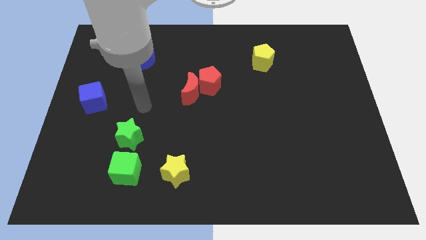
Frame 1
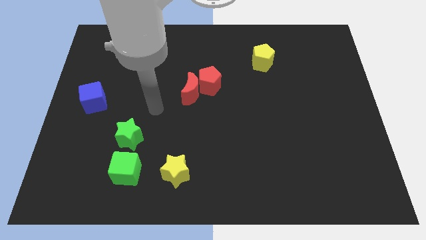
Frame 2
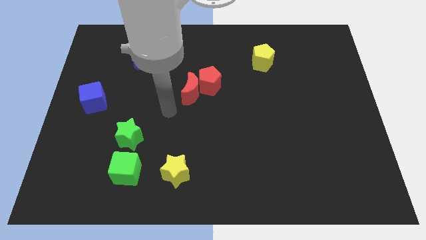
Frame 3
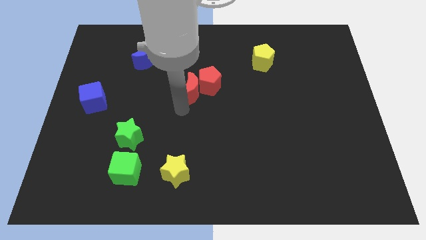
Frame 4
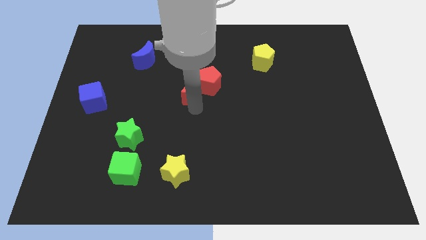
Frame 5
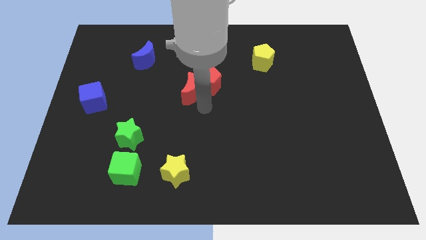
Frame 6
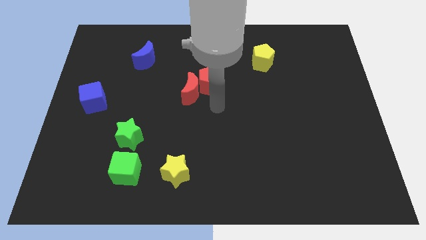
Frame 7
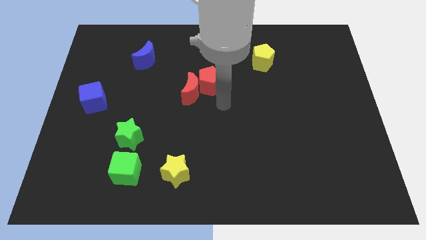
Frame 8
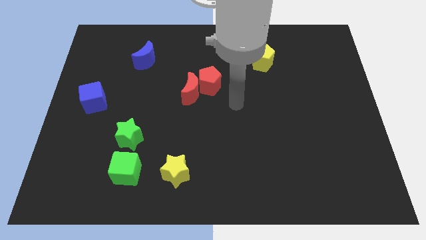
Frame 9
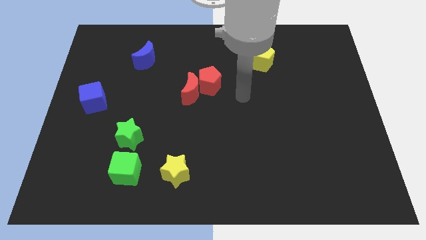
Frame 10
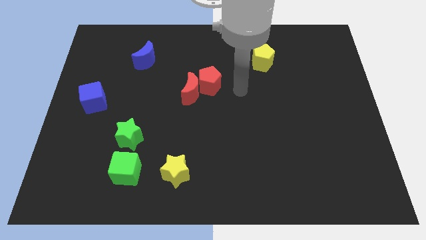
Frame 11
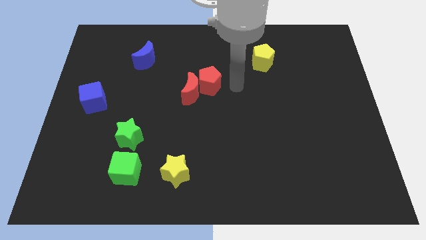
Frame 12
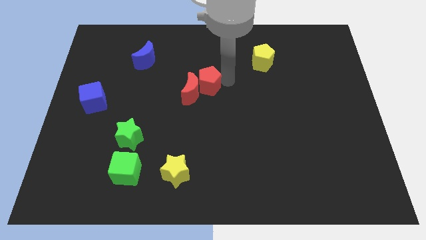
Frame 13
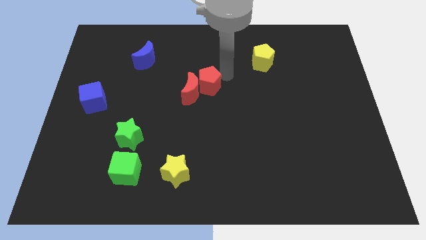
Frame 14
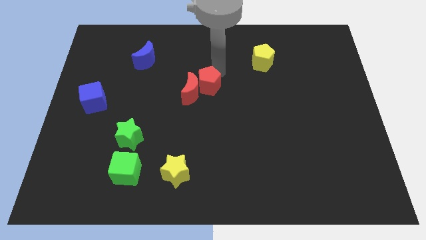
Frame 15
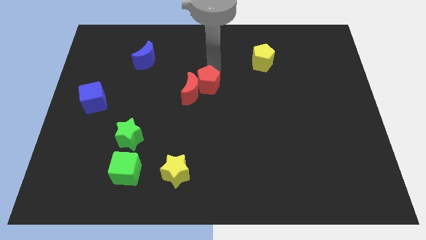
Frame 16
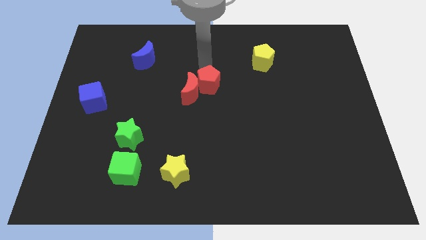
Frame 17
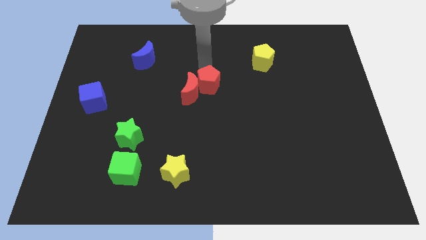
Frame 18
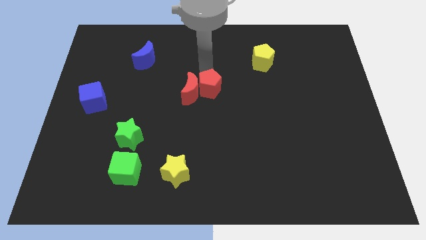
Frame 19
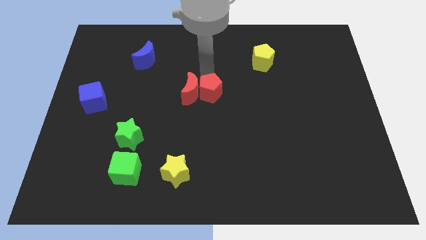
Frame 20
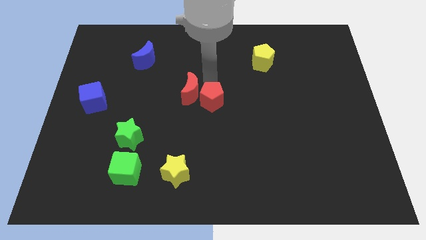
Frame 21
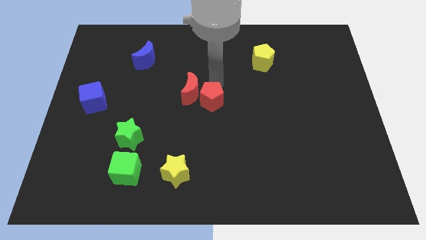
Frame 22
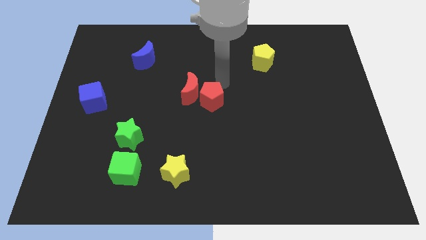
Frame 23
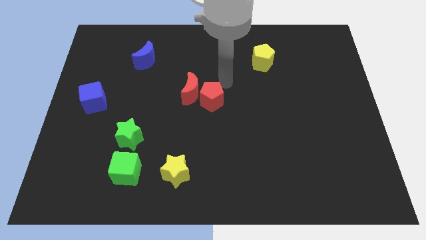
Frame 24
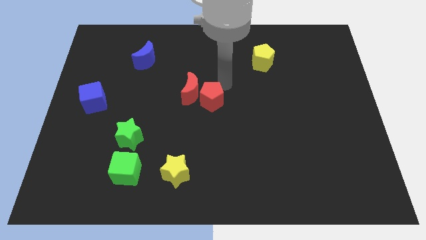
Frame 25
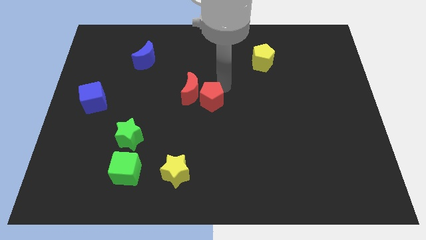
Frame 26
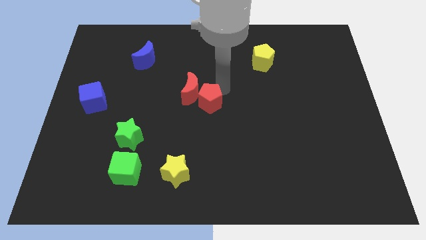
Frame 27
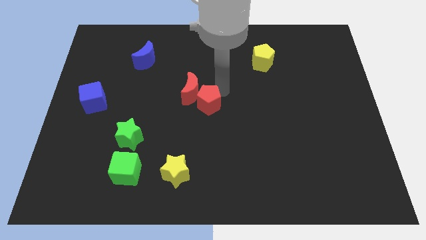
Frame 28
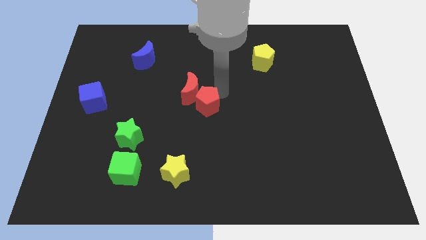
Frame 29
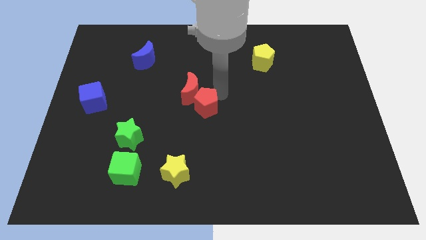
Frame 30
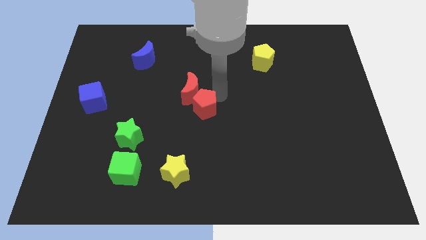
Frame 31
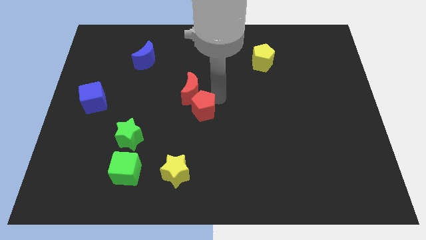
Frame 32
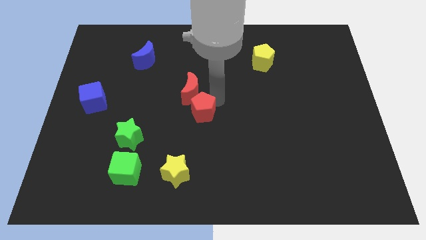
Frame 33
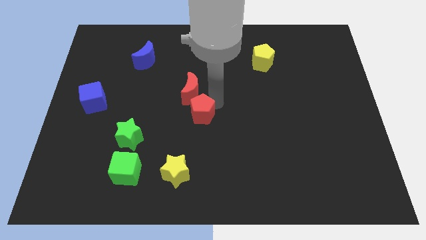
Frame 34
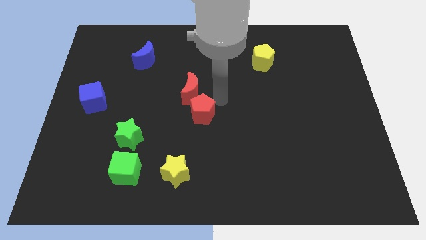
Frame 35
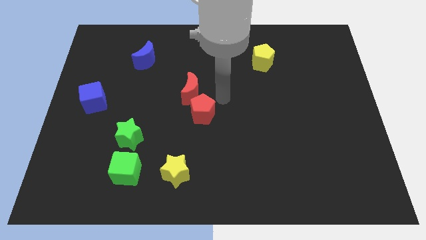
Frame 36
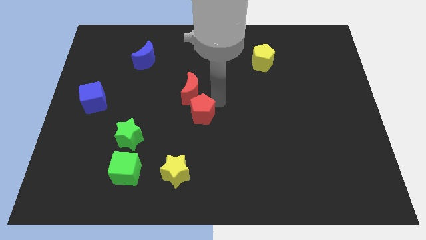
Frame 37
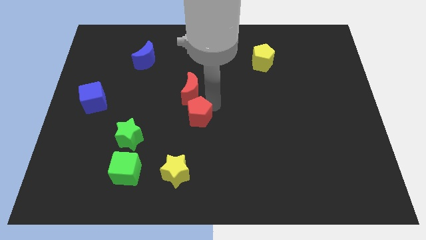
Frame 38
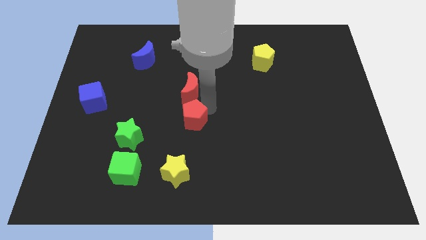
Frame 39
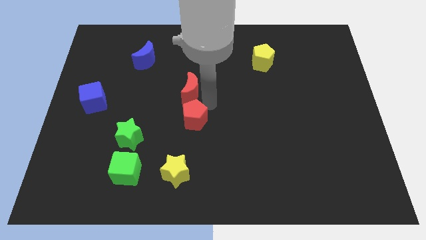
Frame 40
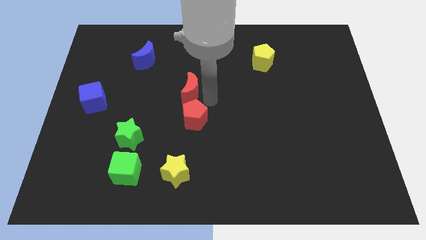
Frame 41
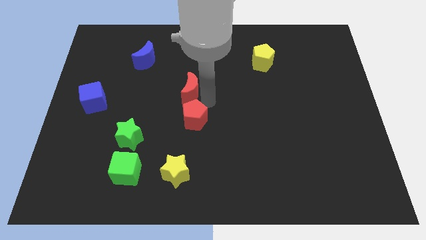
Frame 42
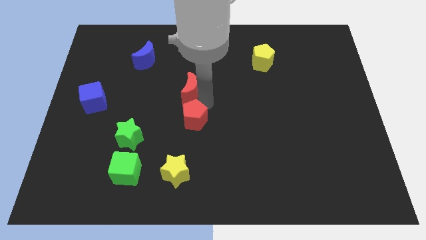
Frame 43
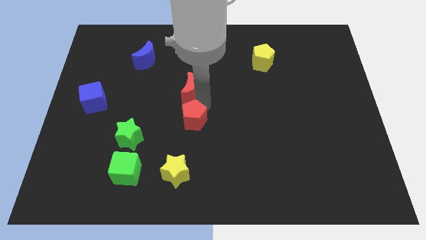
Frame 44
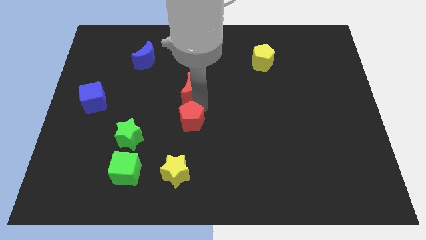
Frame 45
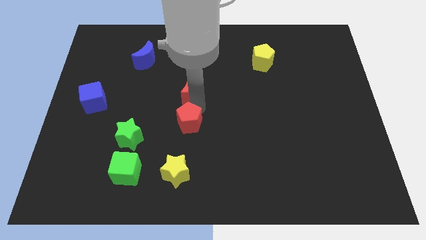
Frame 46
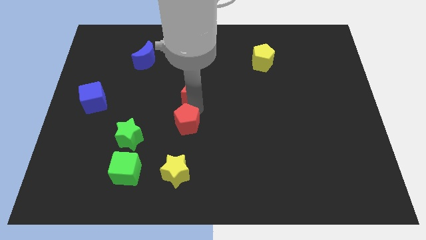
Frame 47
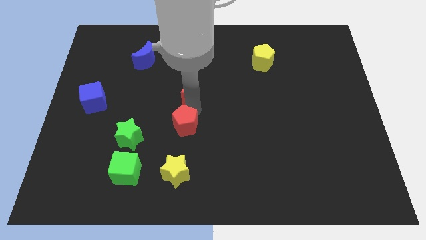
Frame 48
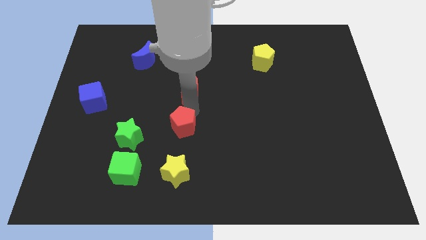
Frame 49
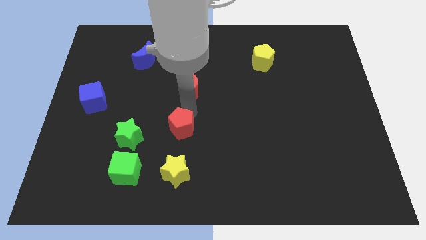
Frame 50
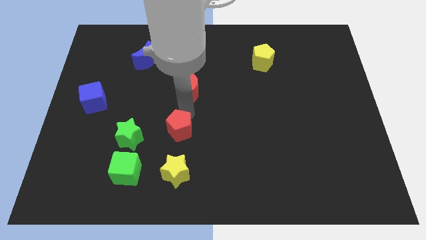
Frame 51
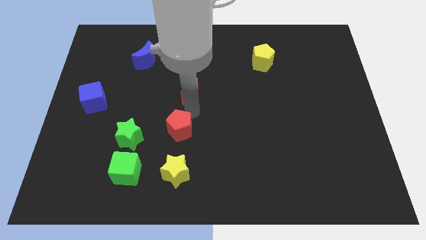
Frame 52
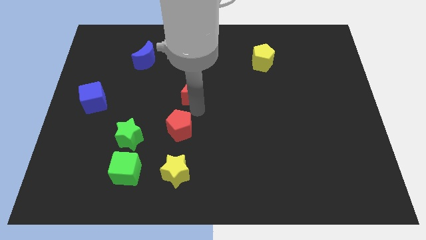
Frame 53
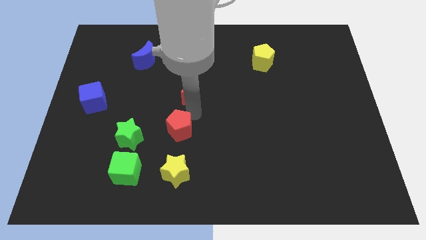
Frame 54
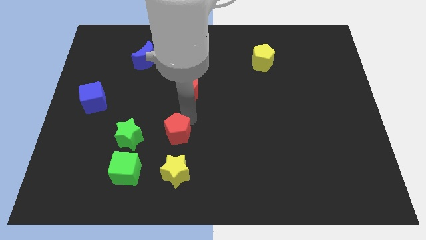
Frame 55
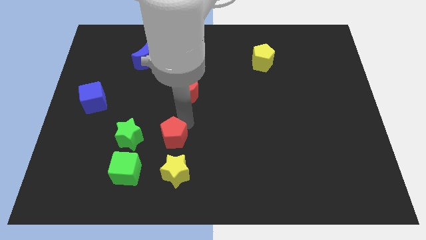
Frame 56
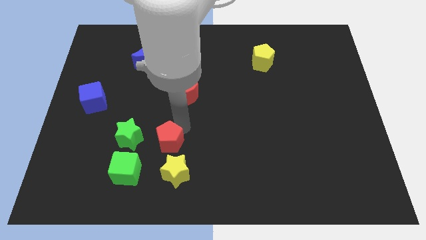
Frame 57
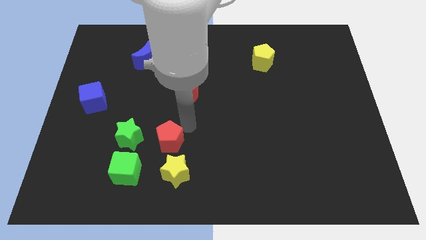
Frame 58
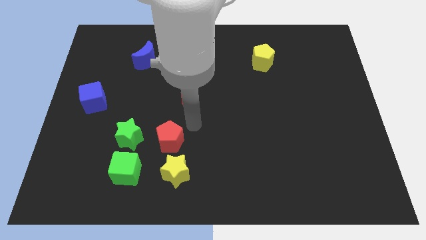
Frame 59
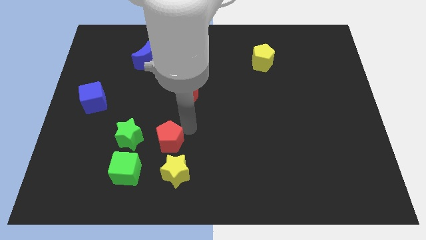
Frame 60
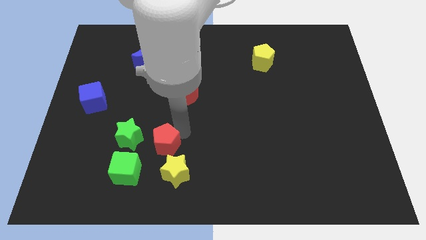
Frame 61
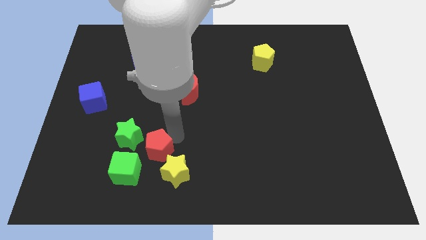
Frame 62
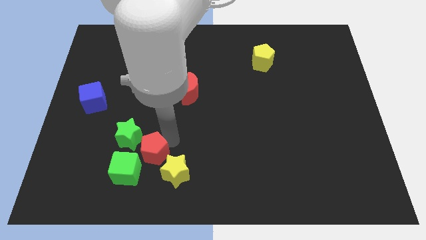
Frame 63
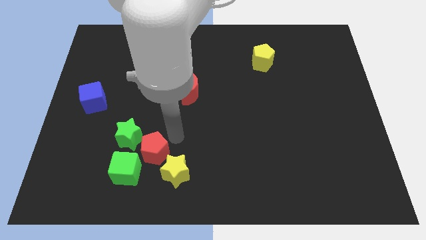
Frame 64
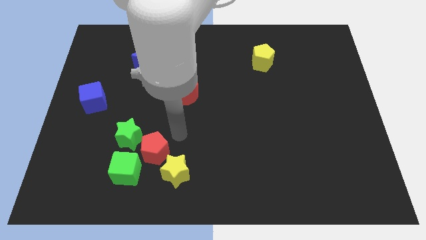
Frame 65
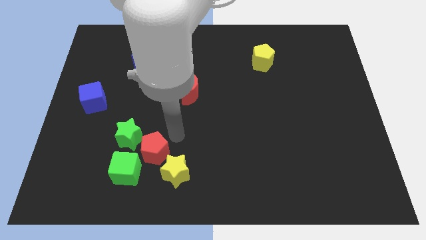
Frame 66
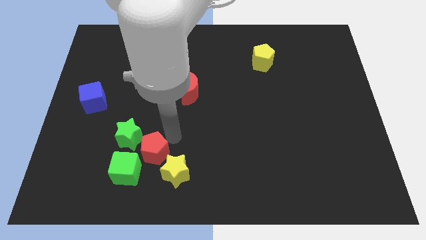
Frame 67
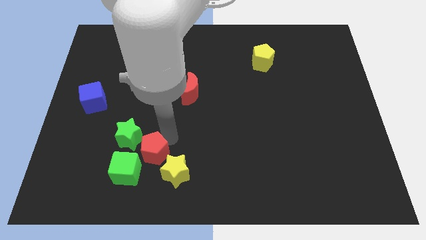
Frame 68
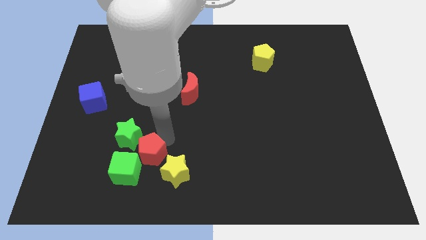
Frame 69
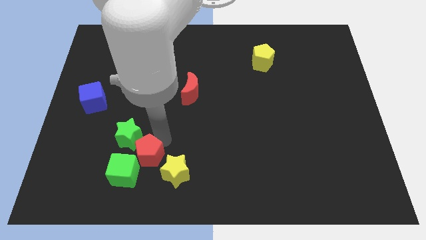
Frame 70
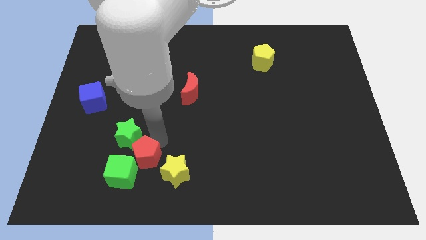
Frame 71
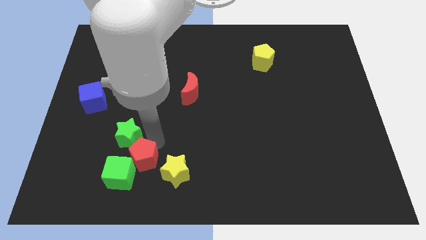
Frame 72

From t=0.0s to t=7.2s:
push the red pentagon towards the green cube

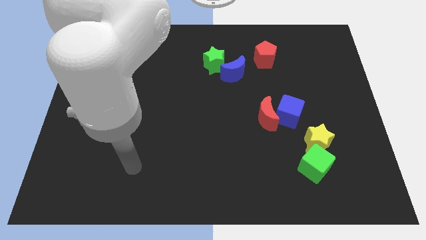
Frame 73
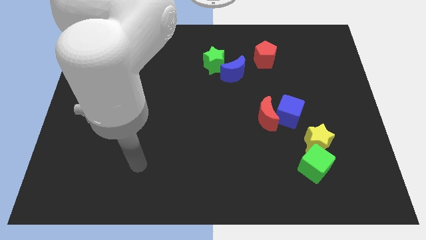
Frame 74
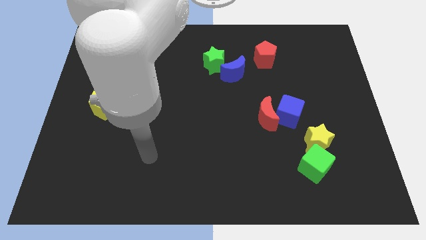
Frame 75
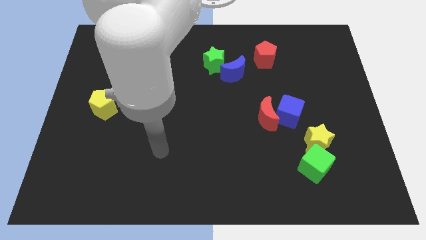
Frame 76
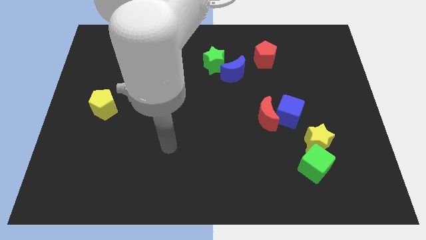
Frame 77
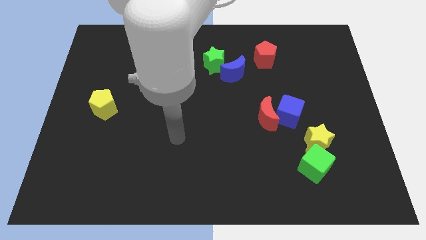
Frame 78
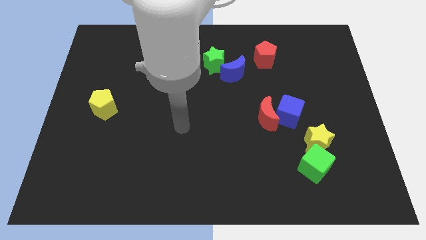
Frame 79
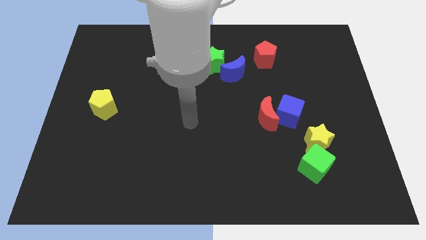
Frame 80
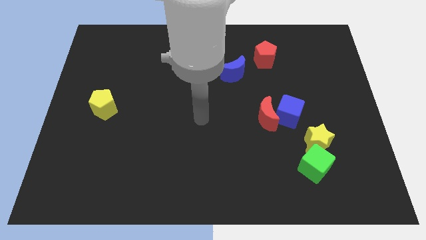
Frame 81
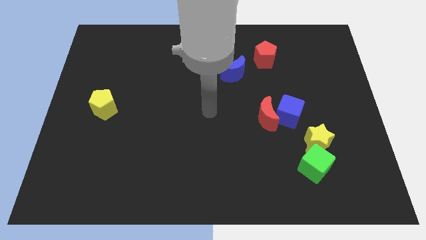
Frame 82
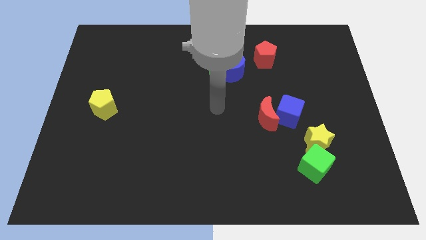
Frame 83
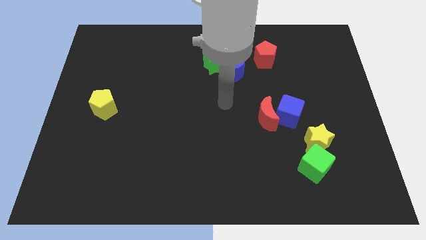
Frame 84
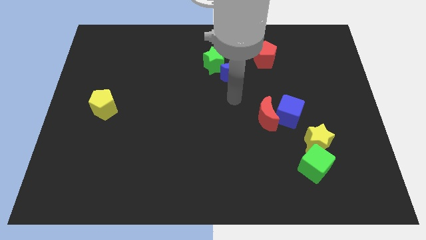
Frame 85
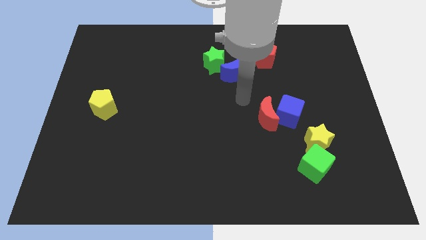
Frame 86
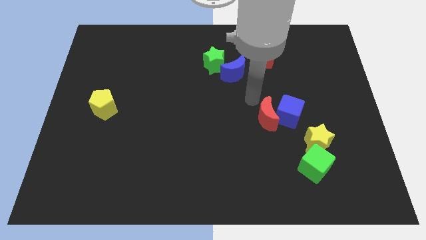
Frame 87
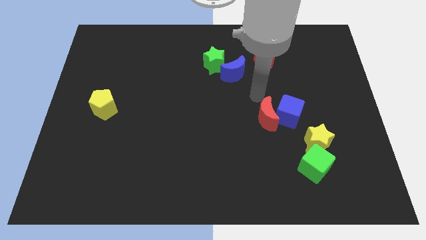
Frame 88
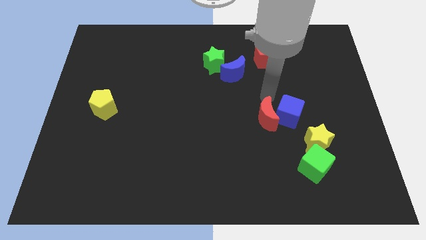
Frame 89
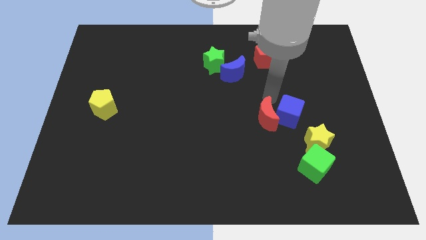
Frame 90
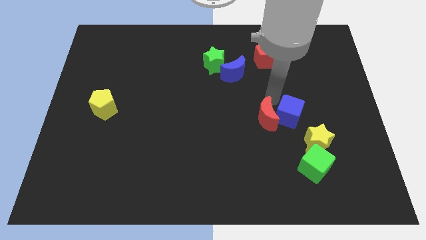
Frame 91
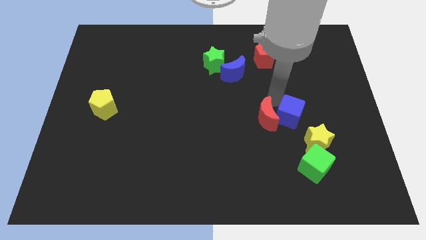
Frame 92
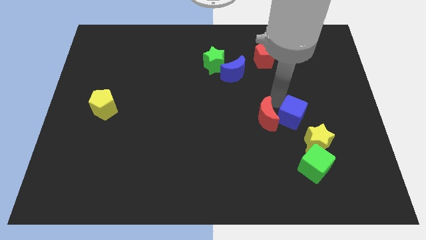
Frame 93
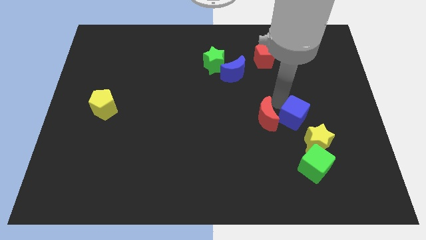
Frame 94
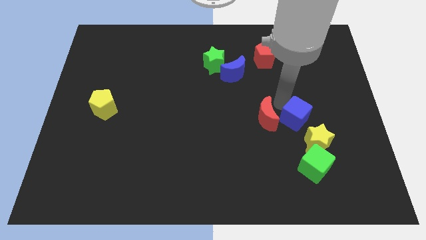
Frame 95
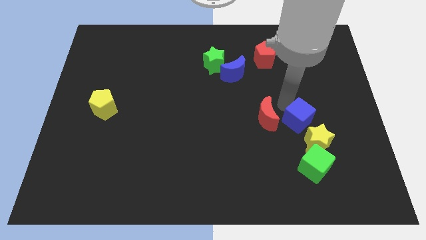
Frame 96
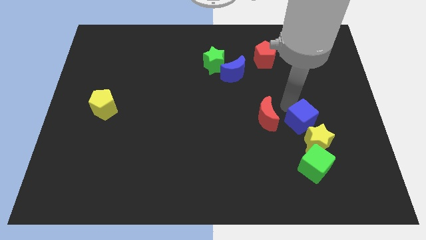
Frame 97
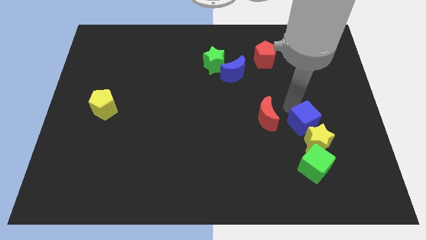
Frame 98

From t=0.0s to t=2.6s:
slide the blue cube to the yellow star
